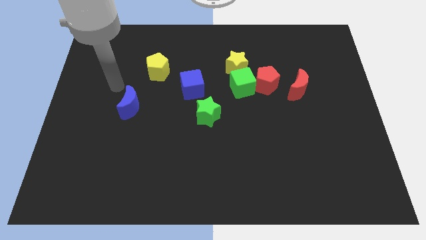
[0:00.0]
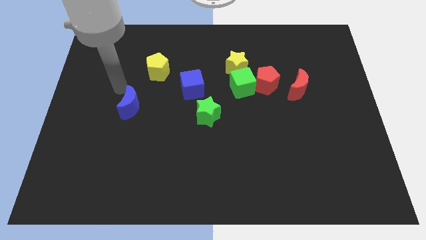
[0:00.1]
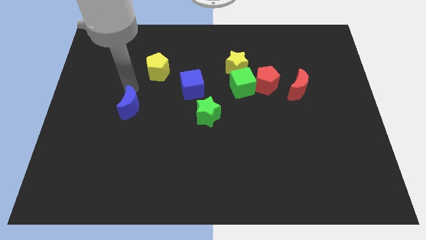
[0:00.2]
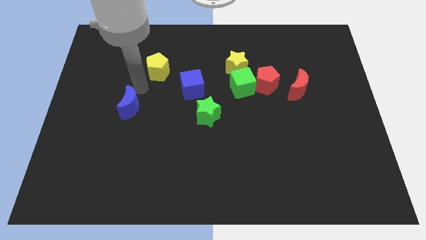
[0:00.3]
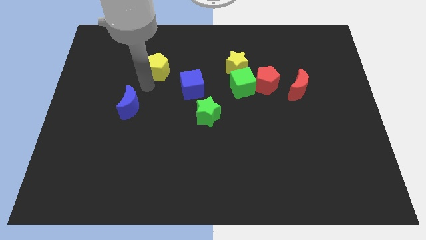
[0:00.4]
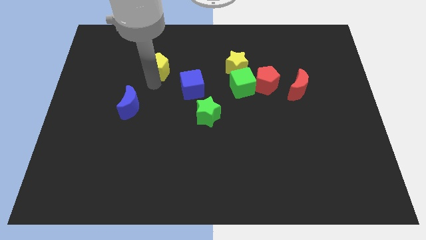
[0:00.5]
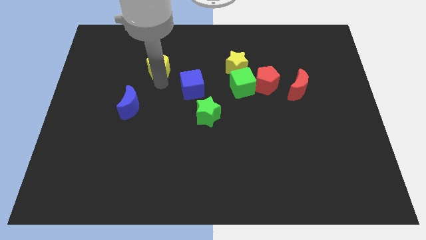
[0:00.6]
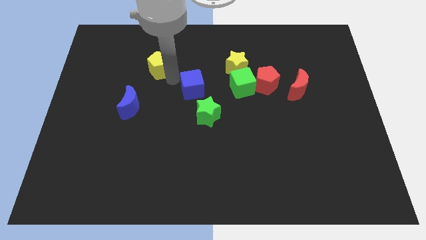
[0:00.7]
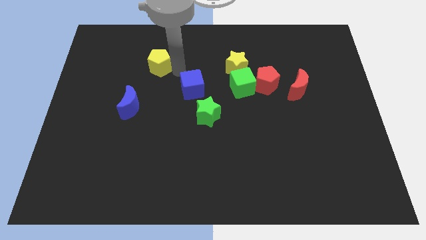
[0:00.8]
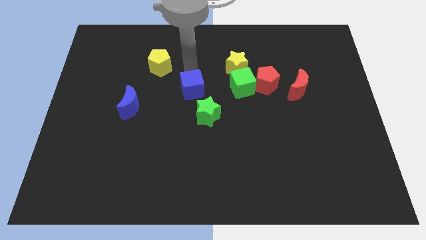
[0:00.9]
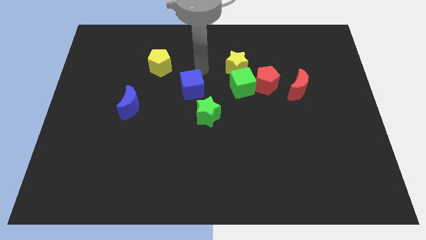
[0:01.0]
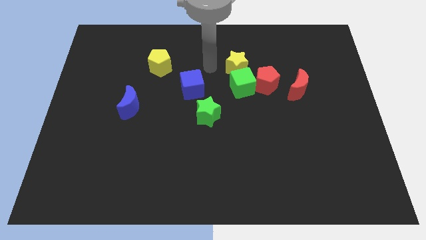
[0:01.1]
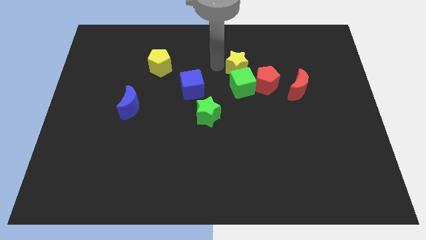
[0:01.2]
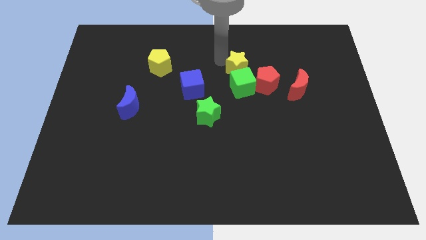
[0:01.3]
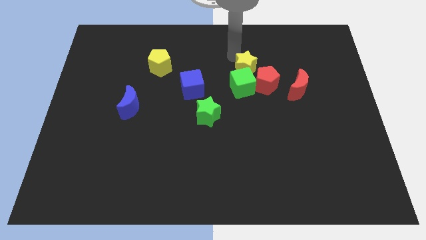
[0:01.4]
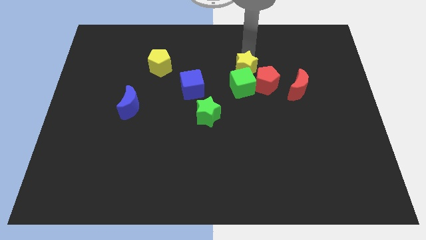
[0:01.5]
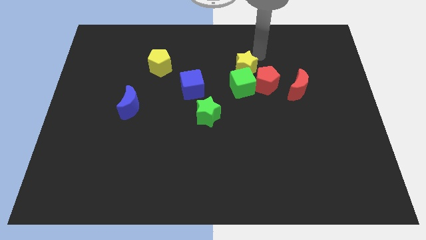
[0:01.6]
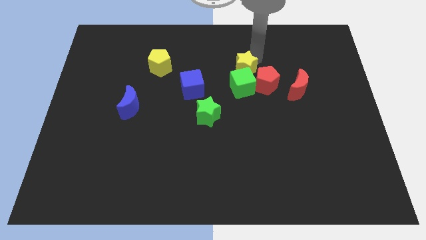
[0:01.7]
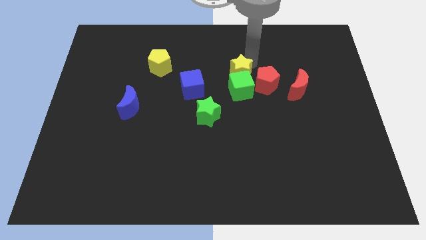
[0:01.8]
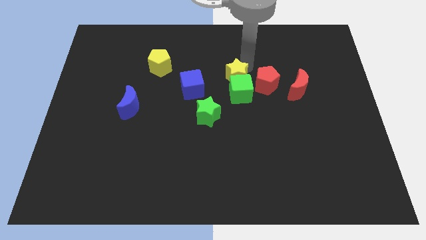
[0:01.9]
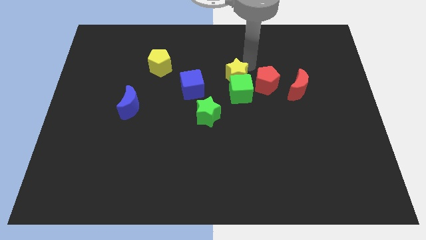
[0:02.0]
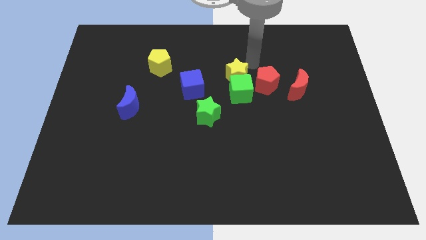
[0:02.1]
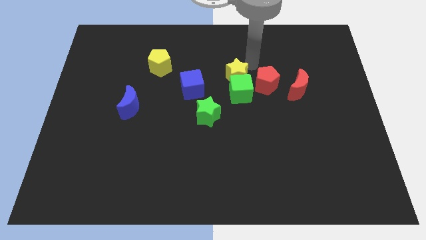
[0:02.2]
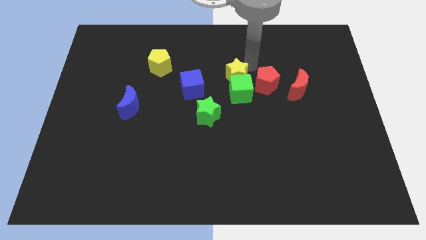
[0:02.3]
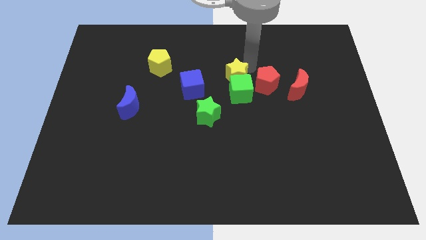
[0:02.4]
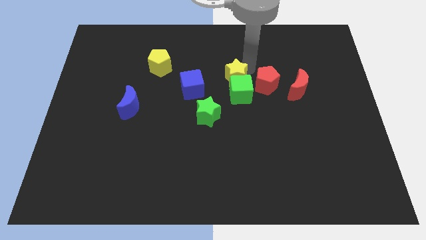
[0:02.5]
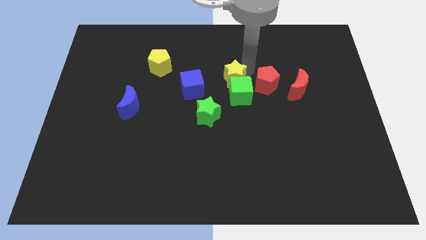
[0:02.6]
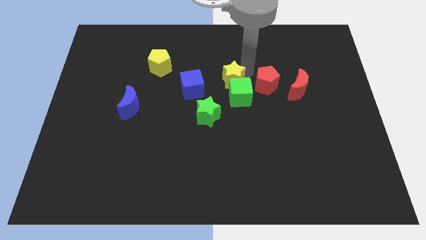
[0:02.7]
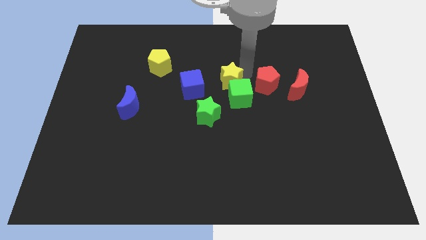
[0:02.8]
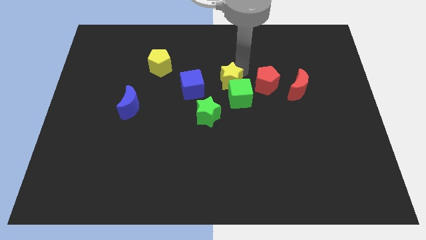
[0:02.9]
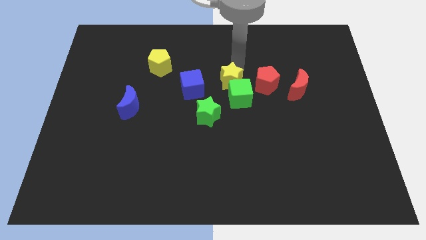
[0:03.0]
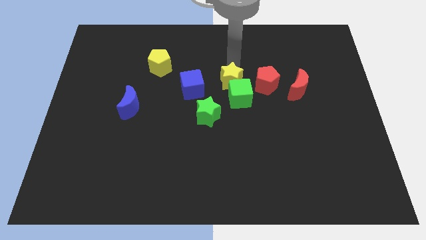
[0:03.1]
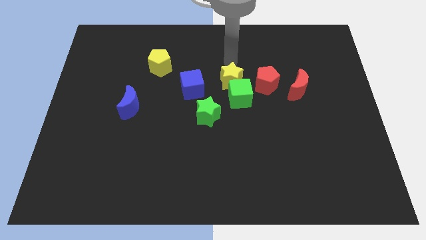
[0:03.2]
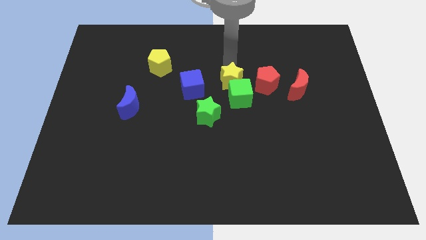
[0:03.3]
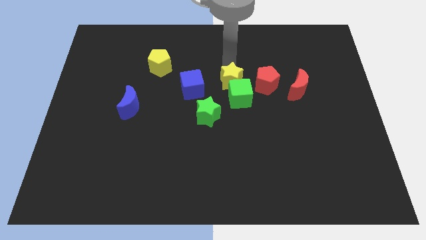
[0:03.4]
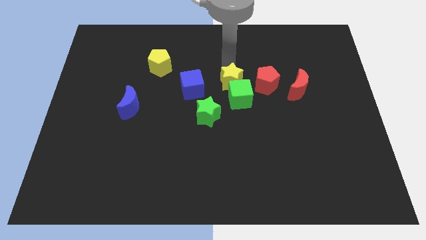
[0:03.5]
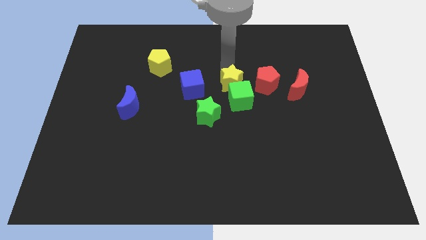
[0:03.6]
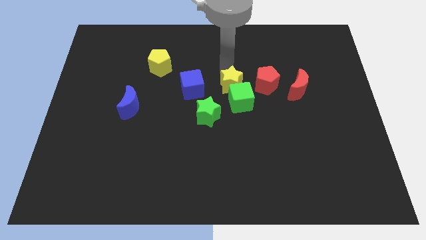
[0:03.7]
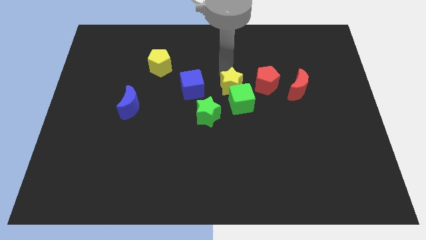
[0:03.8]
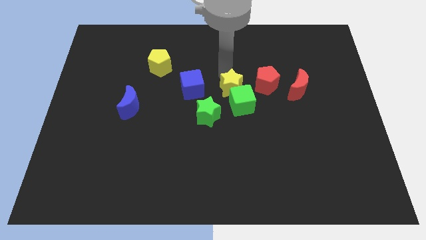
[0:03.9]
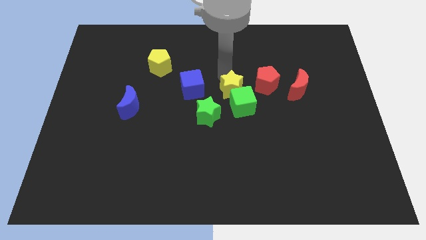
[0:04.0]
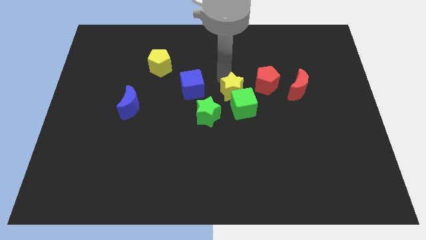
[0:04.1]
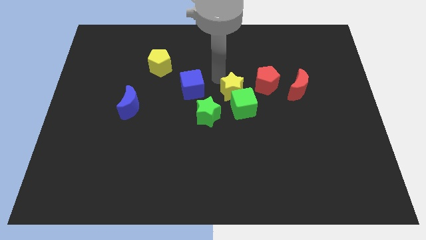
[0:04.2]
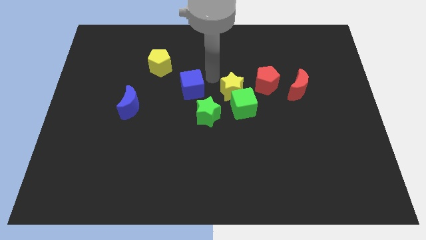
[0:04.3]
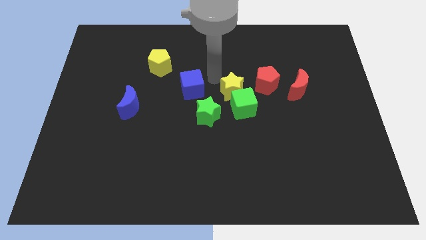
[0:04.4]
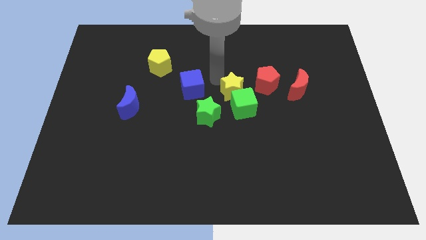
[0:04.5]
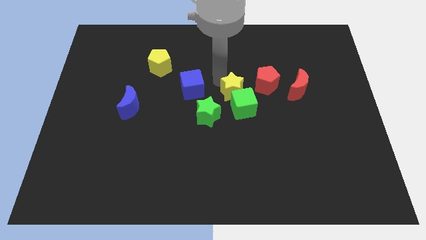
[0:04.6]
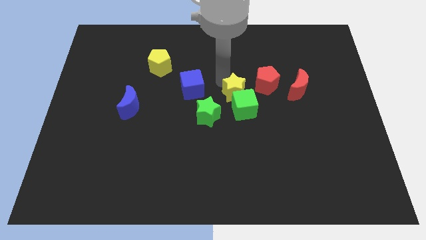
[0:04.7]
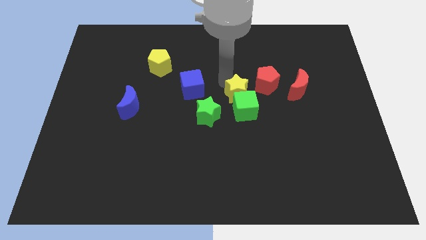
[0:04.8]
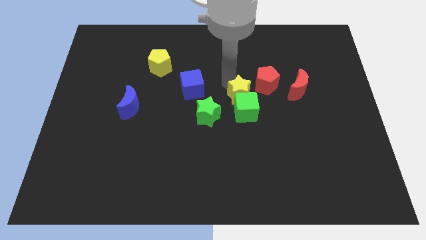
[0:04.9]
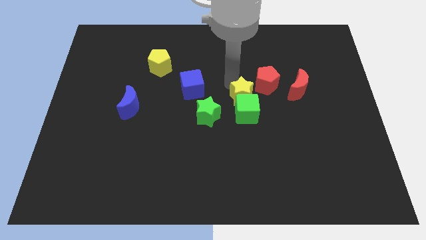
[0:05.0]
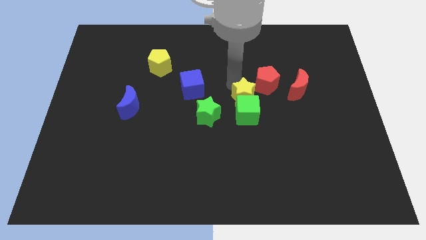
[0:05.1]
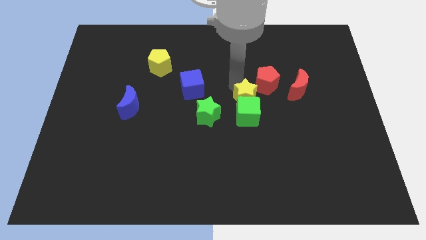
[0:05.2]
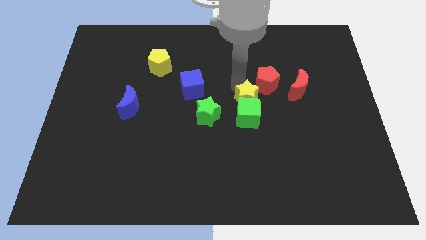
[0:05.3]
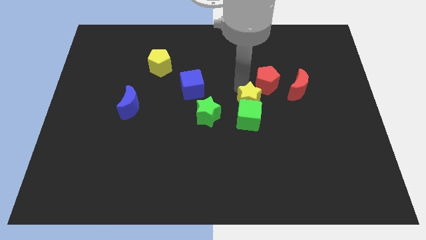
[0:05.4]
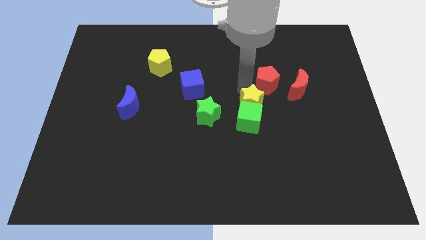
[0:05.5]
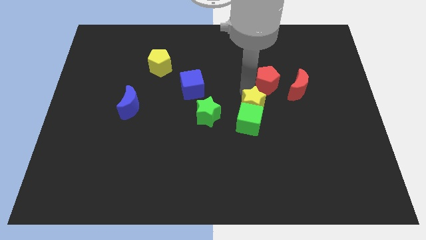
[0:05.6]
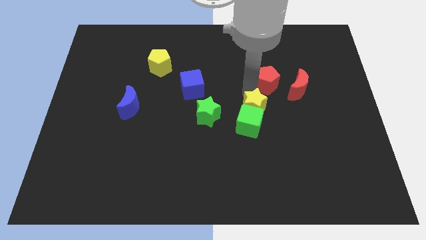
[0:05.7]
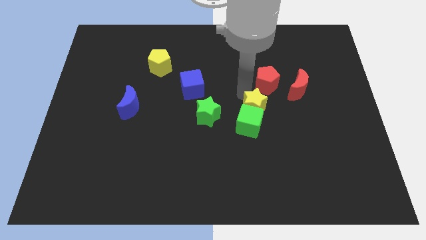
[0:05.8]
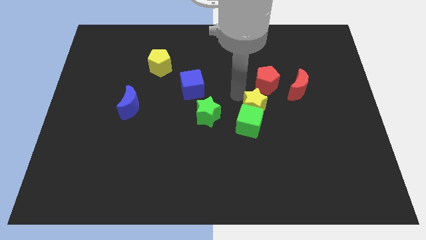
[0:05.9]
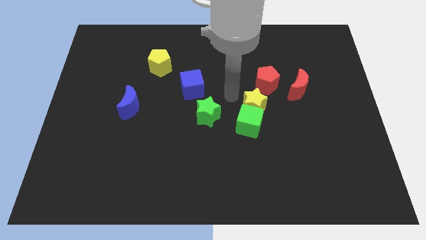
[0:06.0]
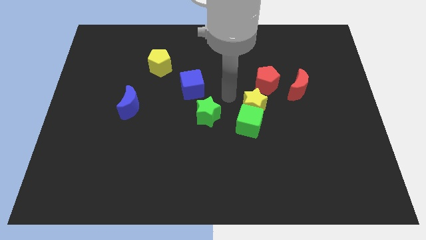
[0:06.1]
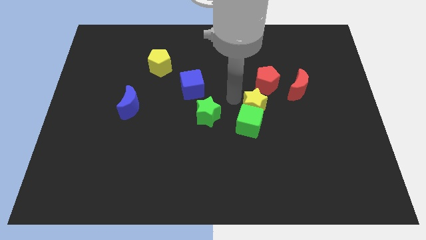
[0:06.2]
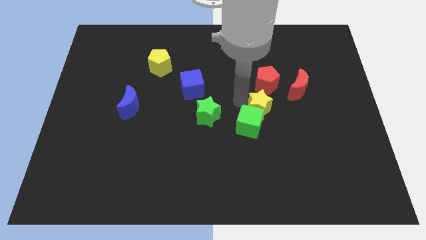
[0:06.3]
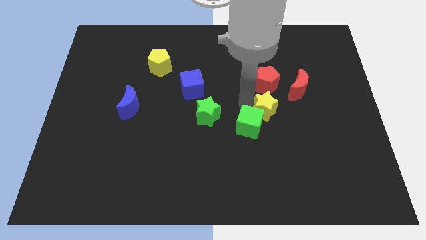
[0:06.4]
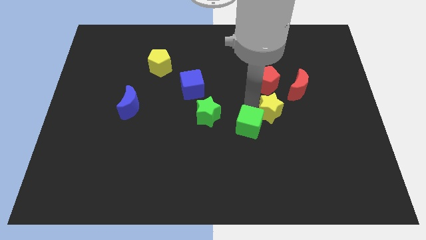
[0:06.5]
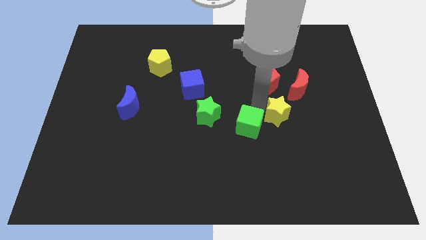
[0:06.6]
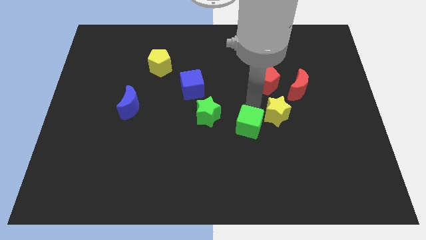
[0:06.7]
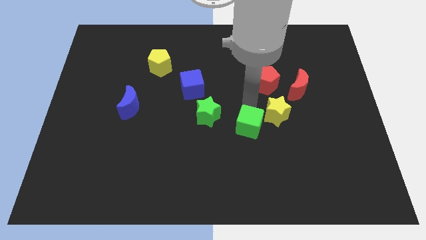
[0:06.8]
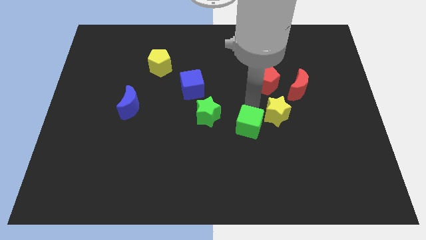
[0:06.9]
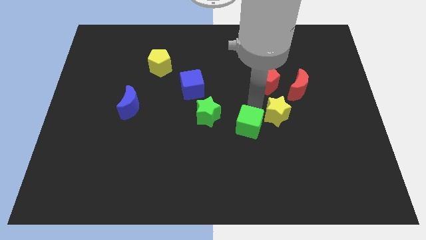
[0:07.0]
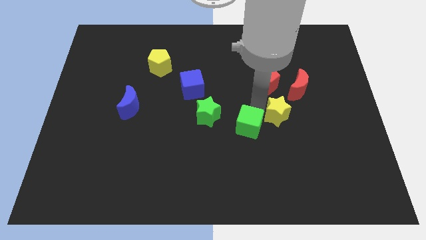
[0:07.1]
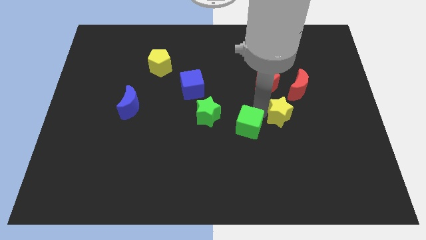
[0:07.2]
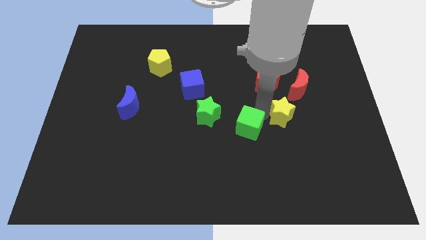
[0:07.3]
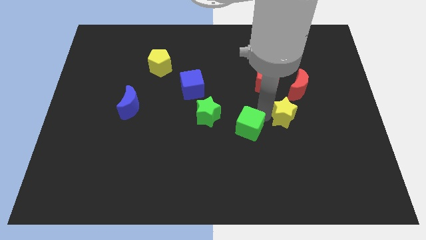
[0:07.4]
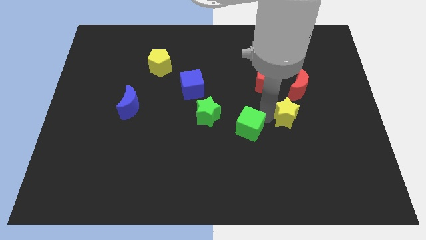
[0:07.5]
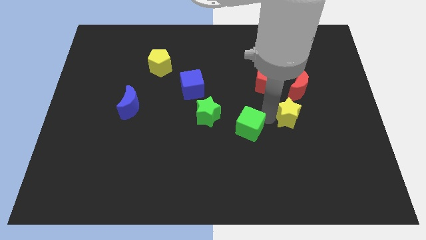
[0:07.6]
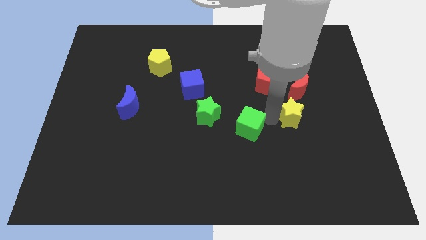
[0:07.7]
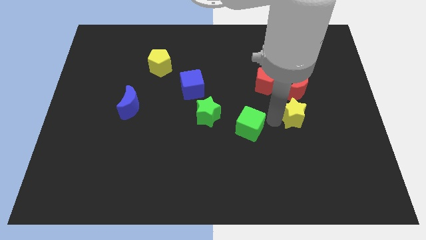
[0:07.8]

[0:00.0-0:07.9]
slide the yellow star diagonally downwards and right
